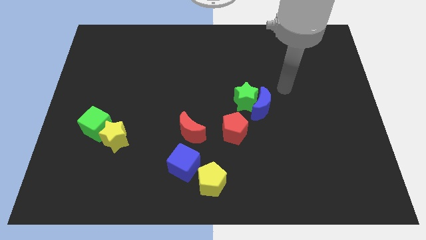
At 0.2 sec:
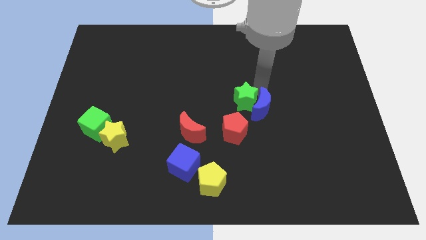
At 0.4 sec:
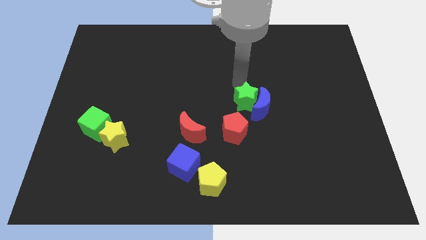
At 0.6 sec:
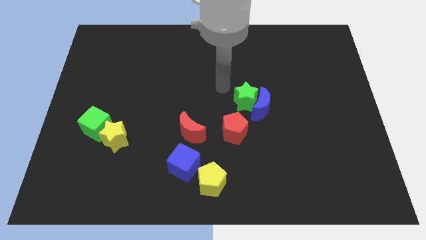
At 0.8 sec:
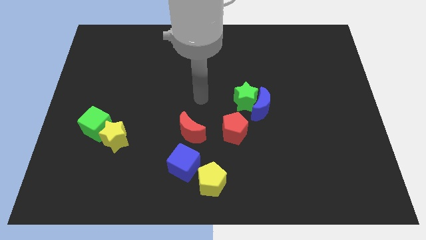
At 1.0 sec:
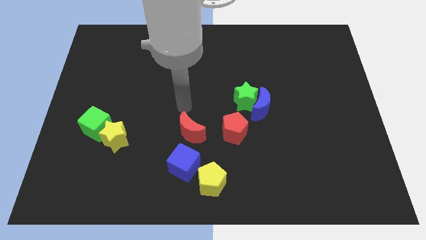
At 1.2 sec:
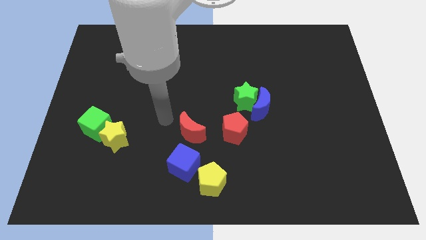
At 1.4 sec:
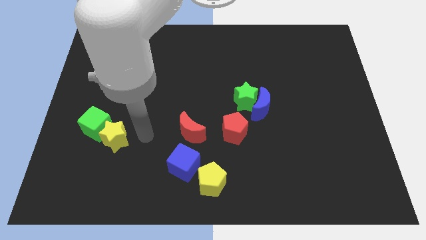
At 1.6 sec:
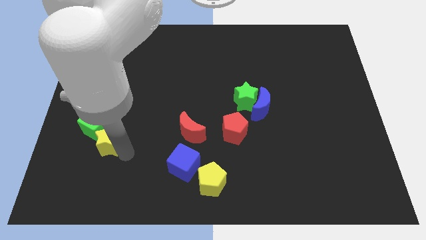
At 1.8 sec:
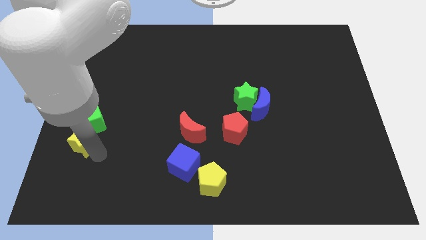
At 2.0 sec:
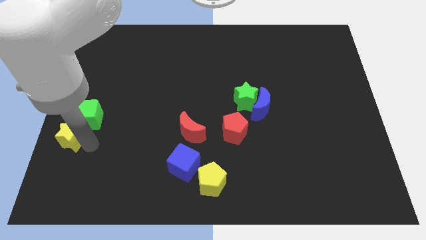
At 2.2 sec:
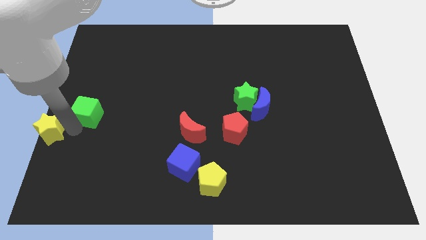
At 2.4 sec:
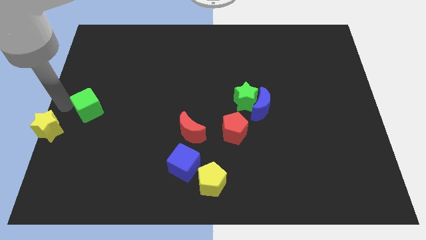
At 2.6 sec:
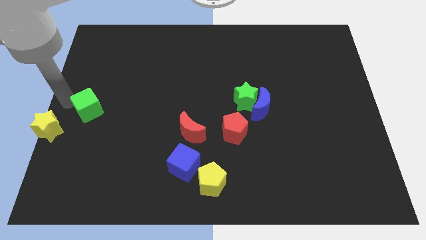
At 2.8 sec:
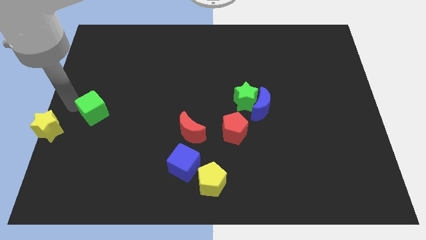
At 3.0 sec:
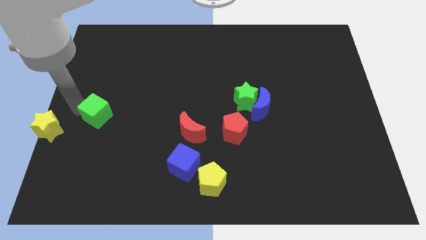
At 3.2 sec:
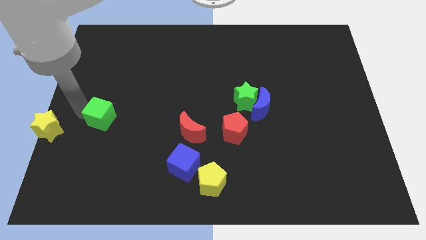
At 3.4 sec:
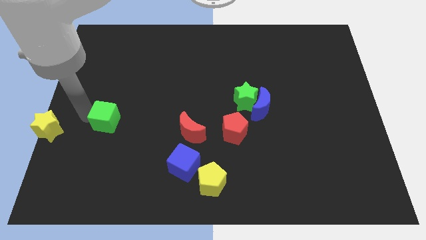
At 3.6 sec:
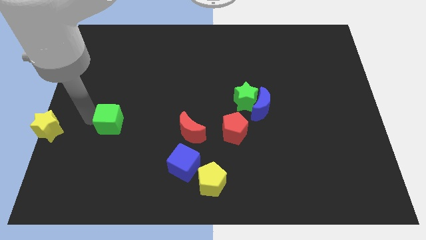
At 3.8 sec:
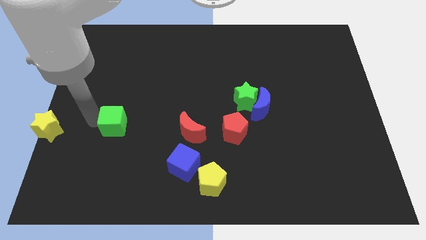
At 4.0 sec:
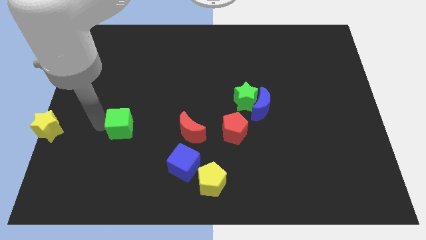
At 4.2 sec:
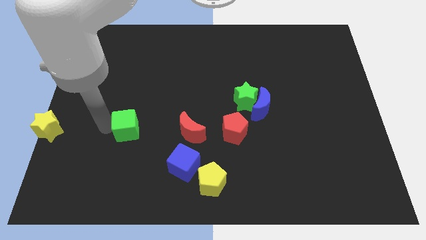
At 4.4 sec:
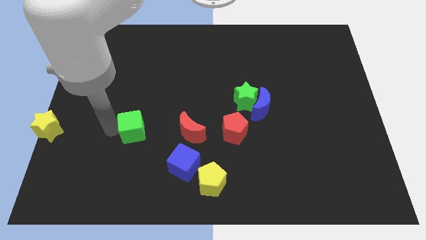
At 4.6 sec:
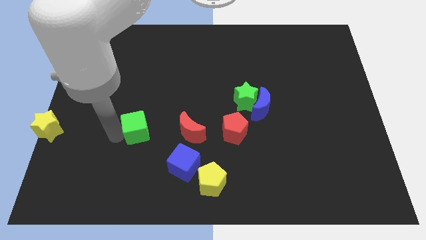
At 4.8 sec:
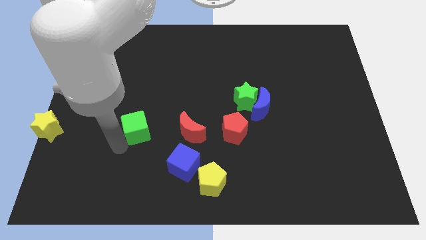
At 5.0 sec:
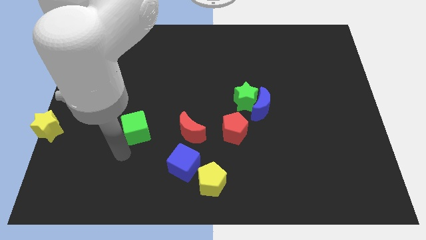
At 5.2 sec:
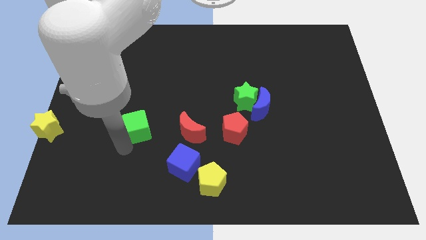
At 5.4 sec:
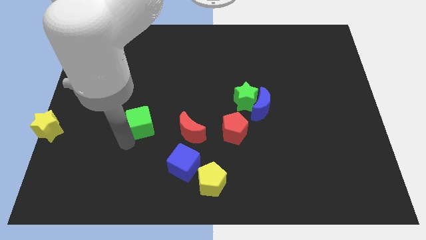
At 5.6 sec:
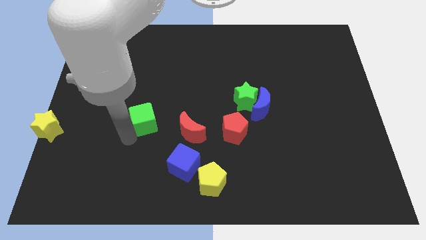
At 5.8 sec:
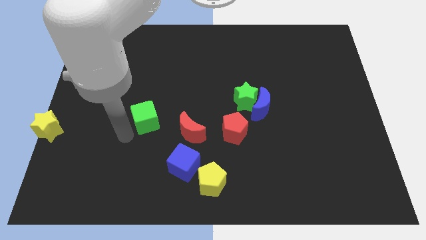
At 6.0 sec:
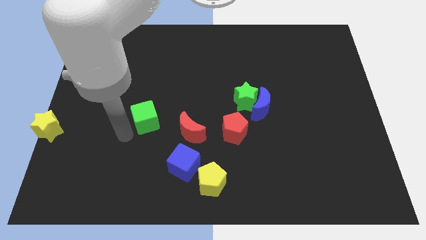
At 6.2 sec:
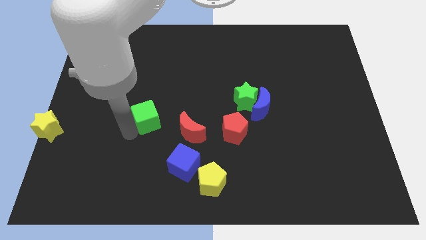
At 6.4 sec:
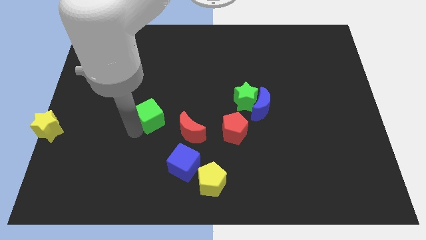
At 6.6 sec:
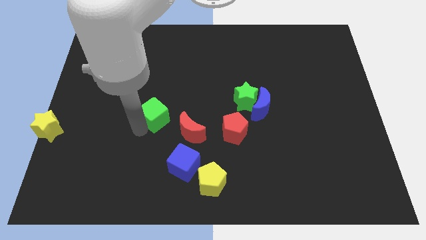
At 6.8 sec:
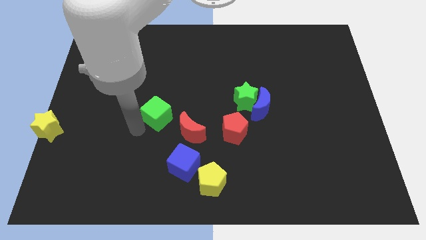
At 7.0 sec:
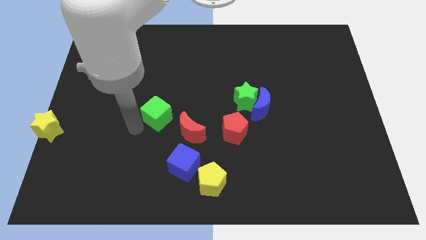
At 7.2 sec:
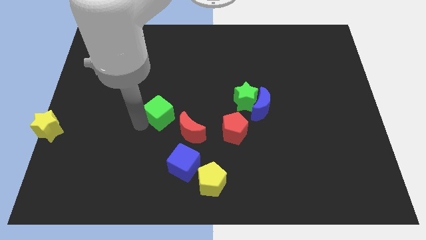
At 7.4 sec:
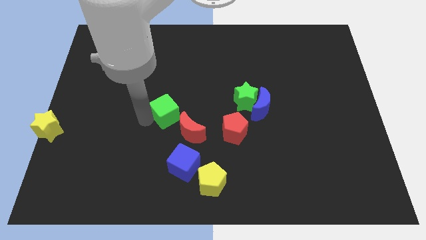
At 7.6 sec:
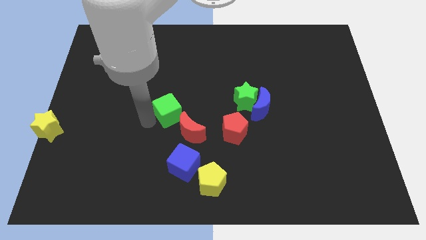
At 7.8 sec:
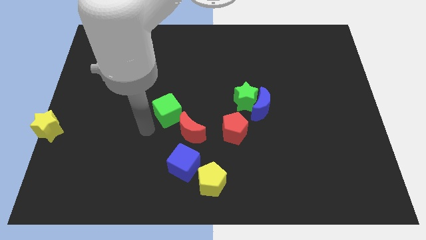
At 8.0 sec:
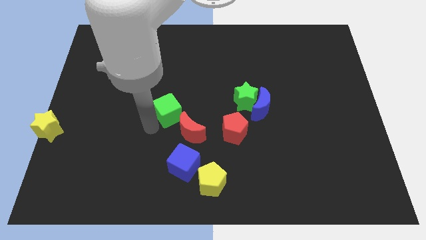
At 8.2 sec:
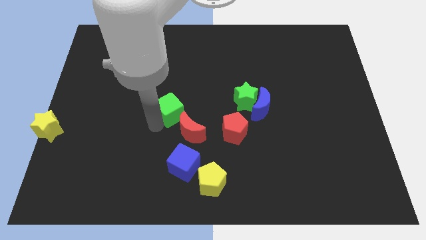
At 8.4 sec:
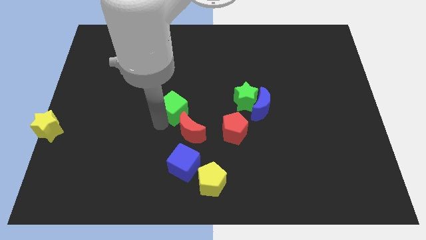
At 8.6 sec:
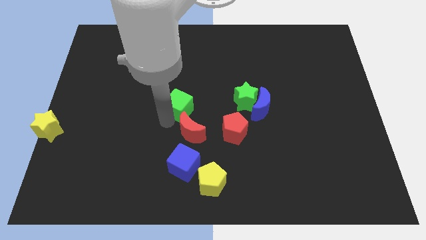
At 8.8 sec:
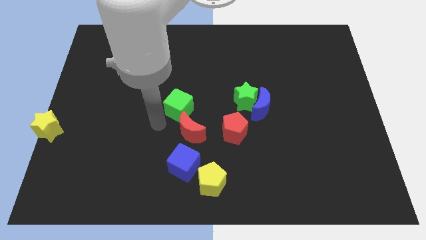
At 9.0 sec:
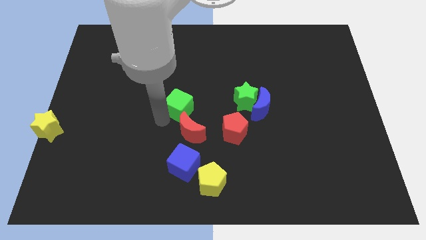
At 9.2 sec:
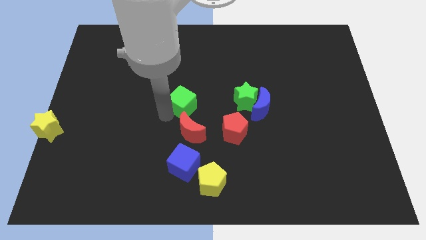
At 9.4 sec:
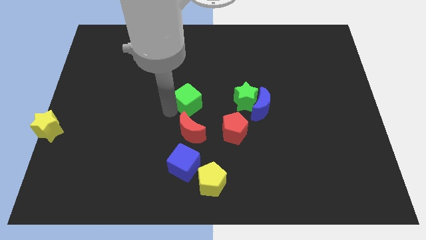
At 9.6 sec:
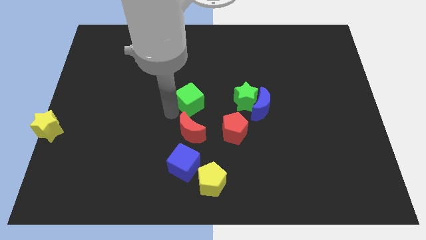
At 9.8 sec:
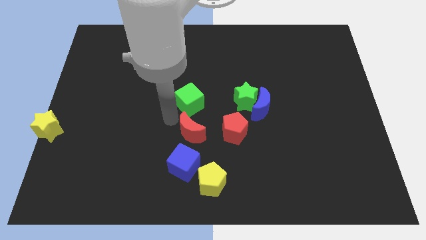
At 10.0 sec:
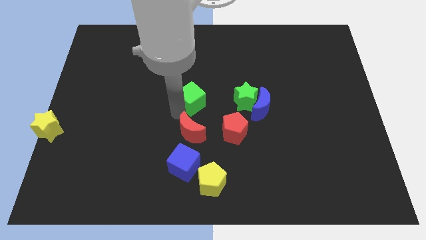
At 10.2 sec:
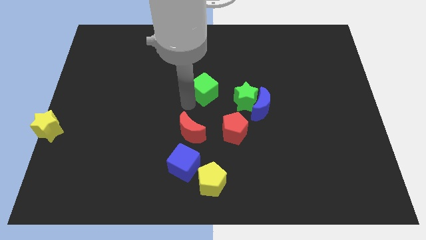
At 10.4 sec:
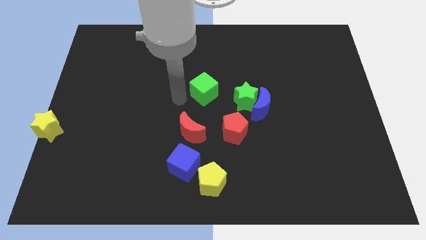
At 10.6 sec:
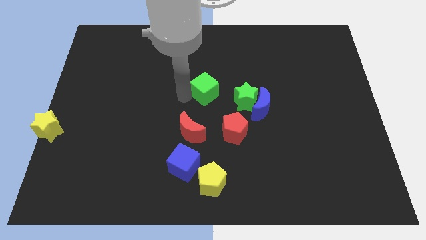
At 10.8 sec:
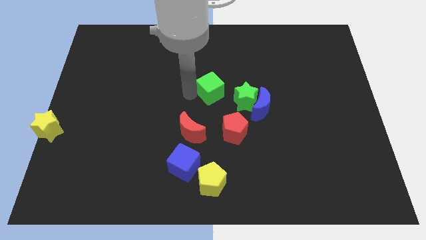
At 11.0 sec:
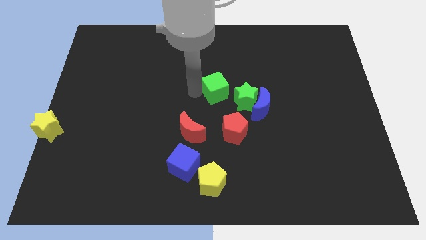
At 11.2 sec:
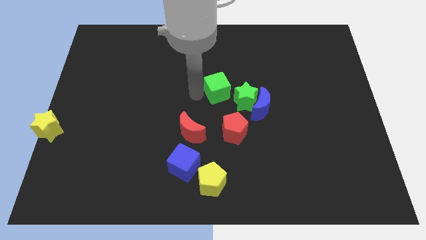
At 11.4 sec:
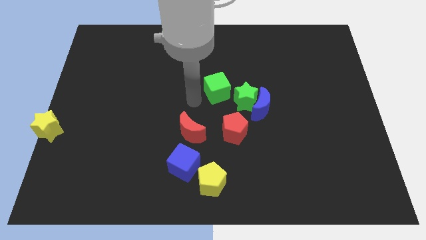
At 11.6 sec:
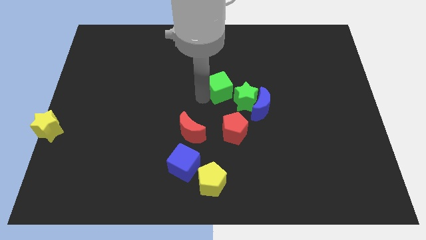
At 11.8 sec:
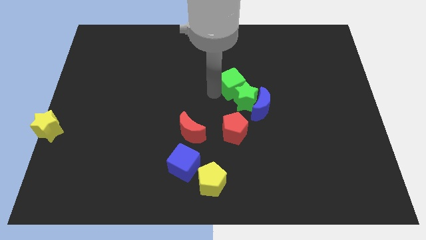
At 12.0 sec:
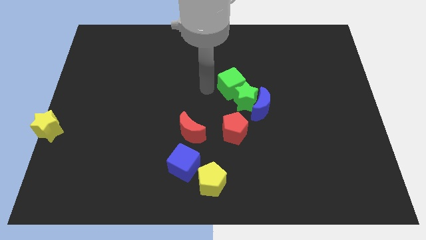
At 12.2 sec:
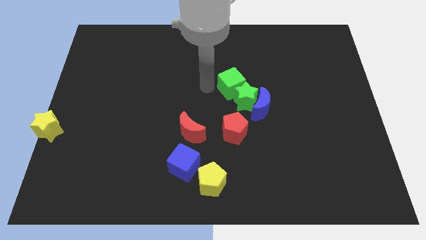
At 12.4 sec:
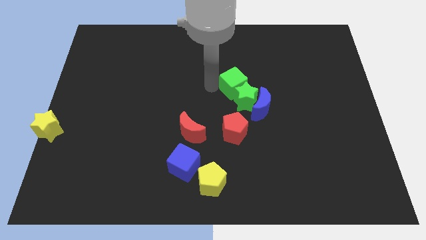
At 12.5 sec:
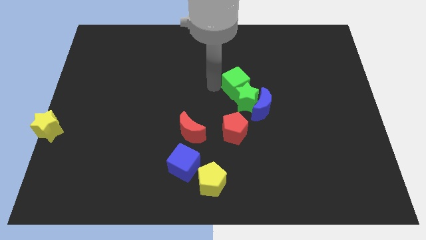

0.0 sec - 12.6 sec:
move the green cube to the top right side of the green star

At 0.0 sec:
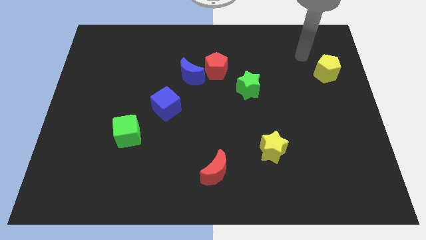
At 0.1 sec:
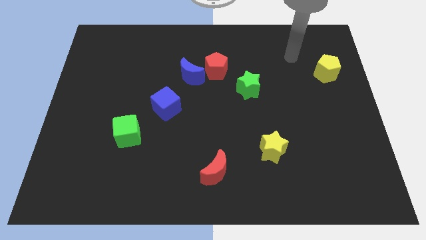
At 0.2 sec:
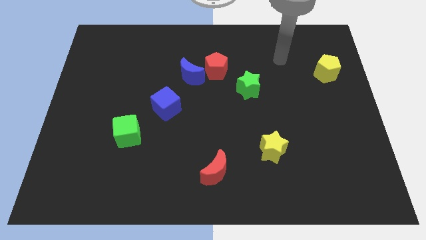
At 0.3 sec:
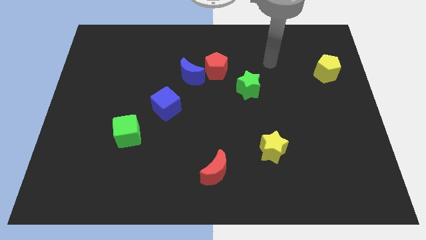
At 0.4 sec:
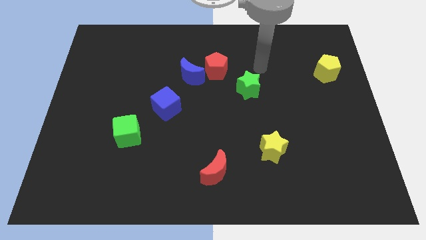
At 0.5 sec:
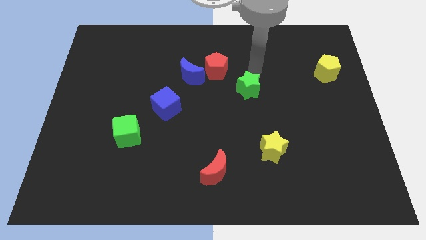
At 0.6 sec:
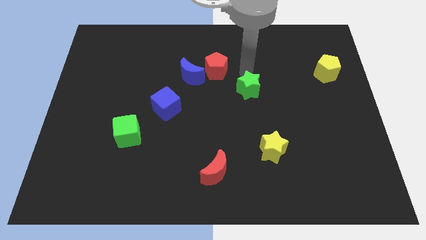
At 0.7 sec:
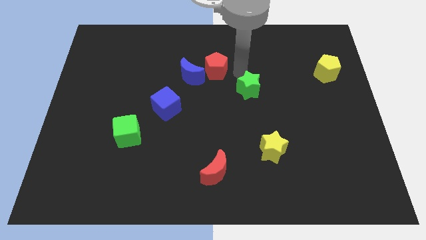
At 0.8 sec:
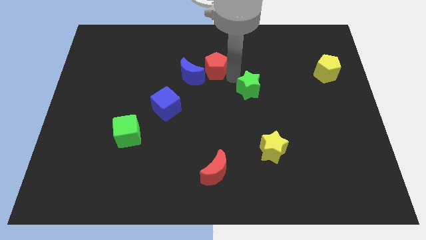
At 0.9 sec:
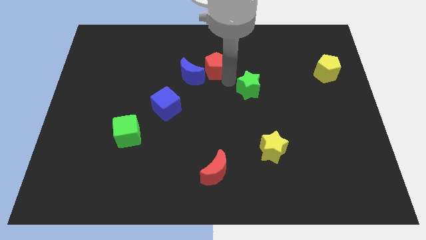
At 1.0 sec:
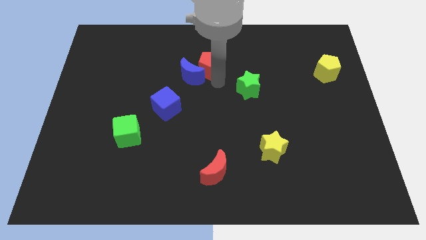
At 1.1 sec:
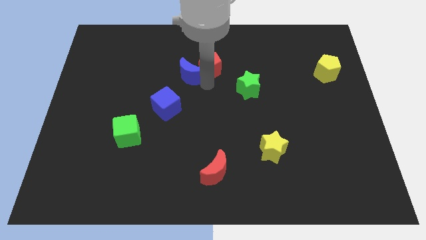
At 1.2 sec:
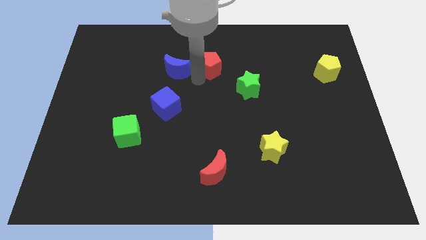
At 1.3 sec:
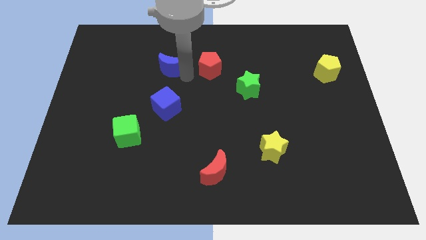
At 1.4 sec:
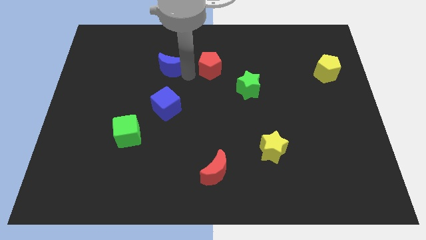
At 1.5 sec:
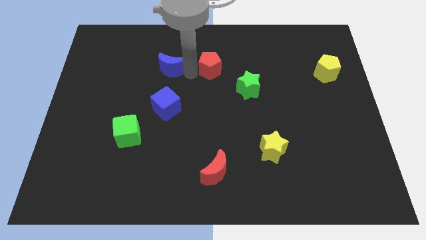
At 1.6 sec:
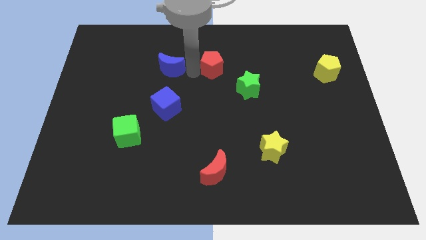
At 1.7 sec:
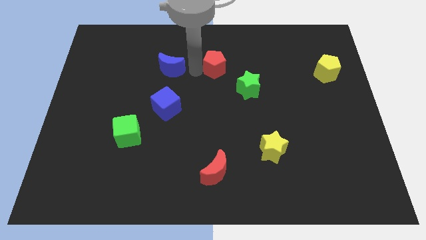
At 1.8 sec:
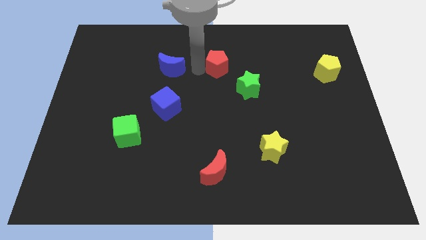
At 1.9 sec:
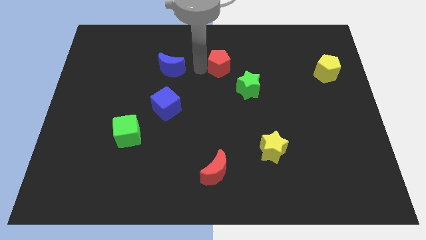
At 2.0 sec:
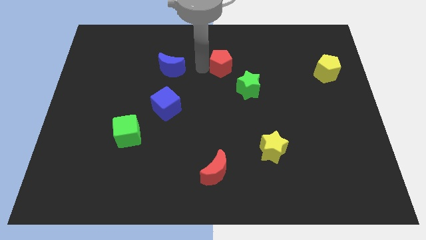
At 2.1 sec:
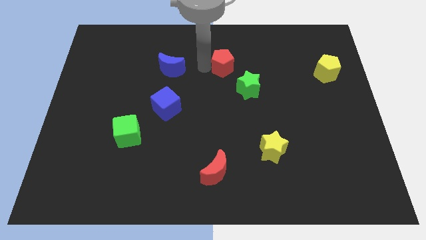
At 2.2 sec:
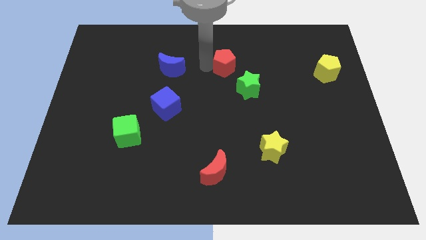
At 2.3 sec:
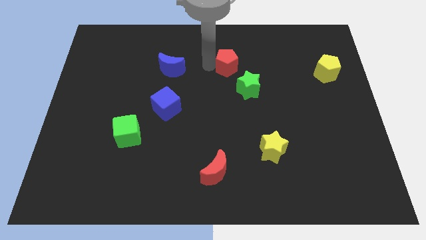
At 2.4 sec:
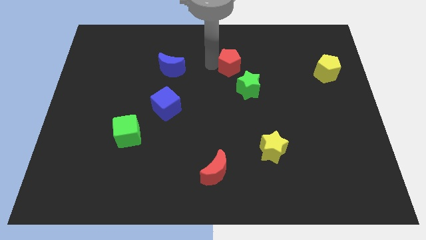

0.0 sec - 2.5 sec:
put the red pentagon to the top side of the green star
